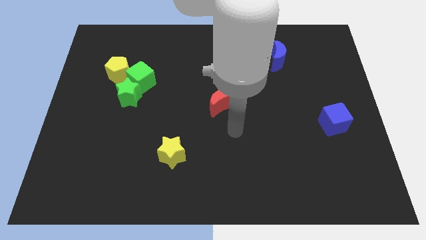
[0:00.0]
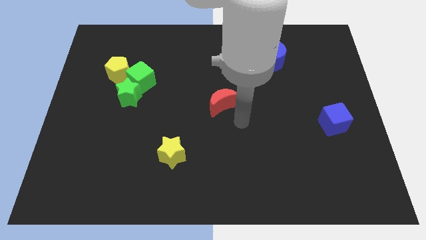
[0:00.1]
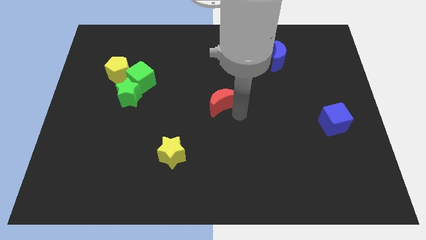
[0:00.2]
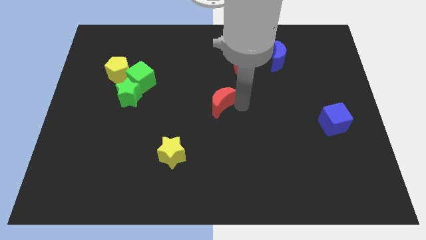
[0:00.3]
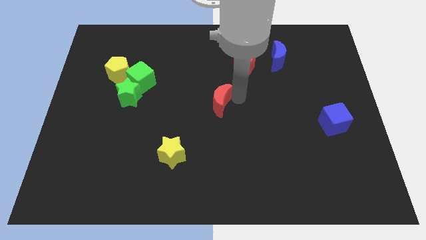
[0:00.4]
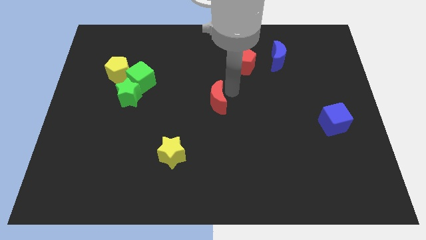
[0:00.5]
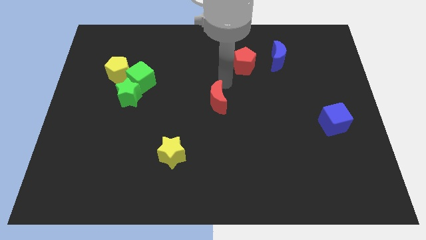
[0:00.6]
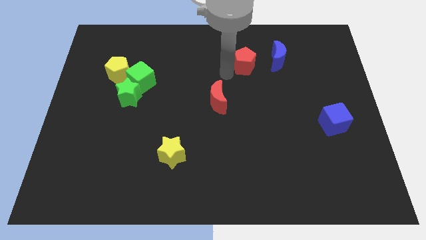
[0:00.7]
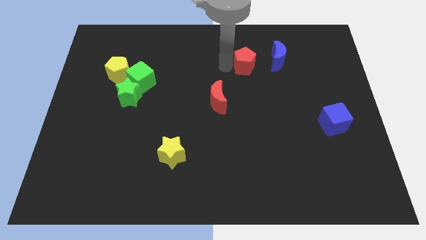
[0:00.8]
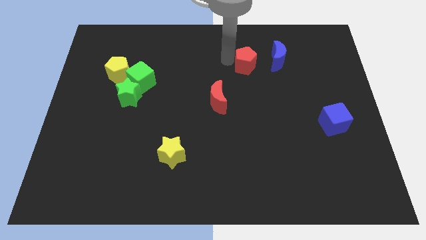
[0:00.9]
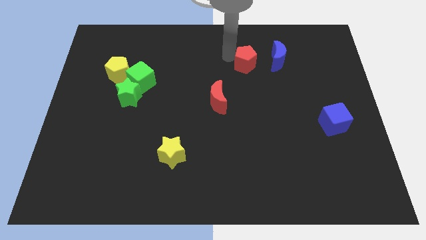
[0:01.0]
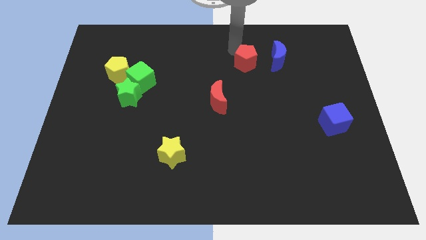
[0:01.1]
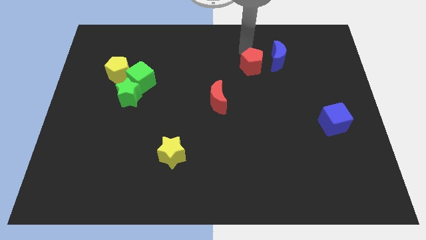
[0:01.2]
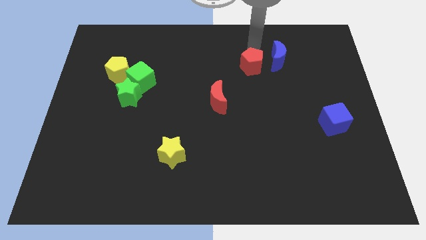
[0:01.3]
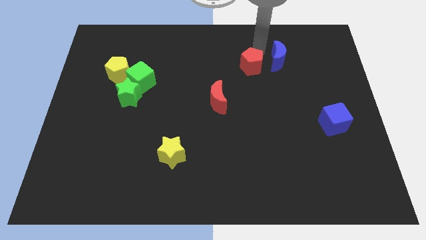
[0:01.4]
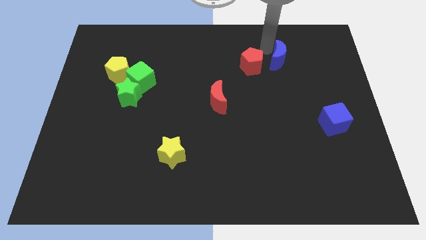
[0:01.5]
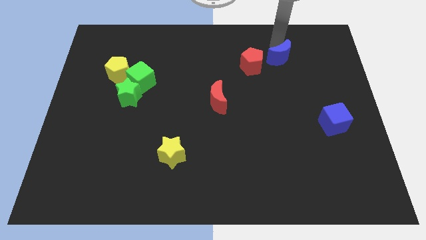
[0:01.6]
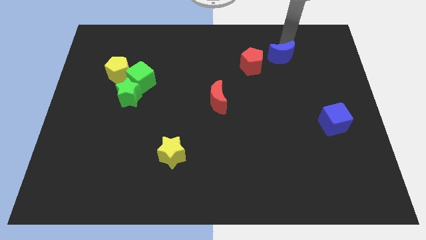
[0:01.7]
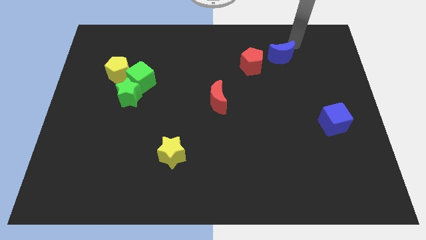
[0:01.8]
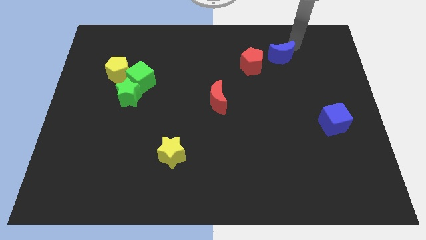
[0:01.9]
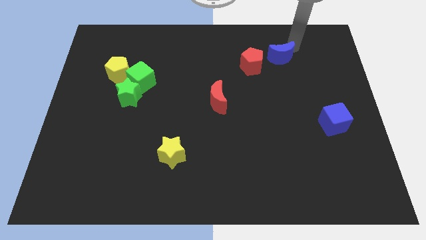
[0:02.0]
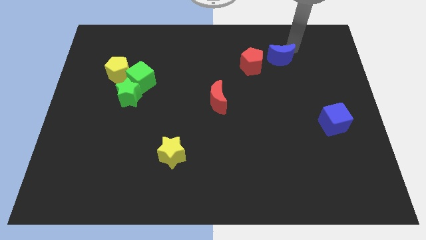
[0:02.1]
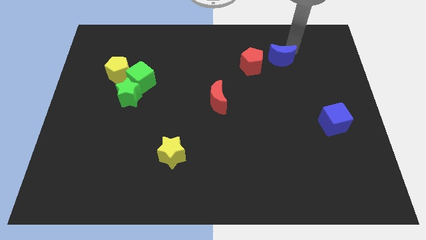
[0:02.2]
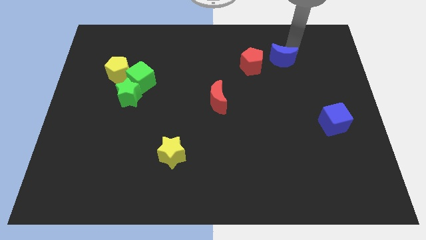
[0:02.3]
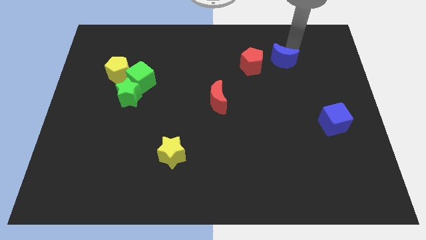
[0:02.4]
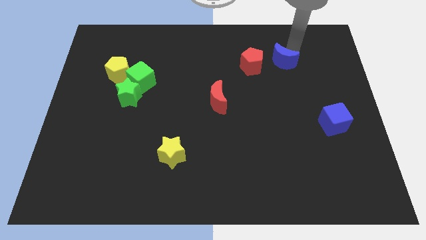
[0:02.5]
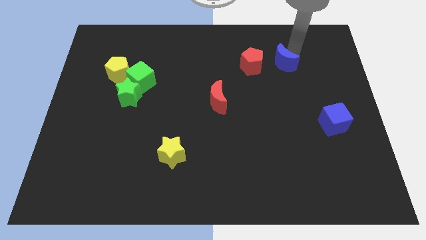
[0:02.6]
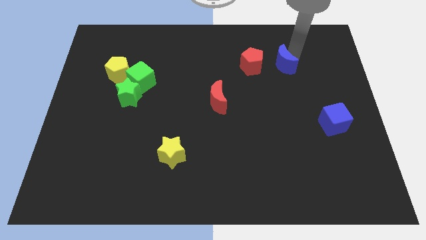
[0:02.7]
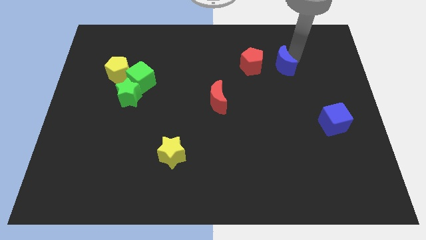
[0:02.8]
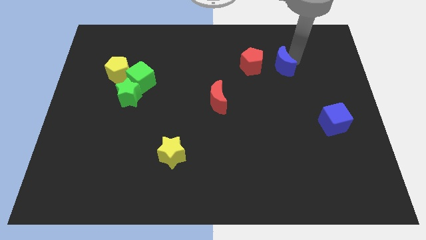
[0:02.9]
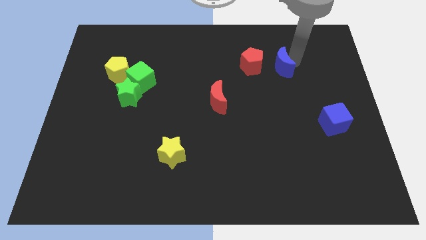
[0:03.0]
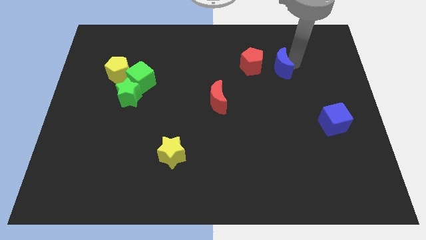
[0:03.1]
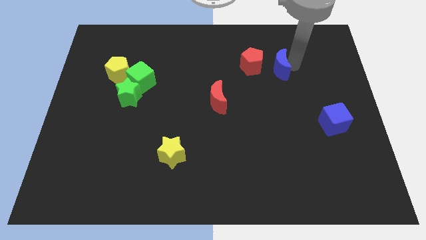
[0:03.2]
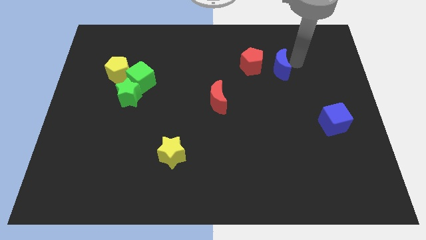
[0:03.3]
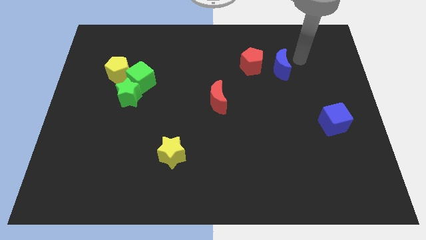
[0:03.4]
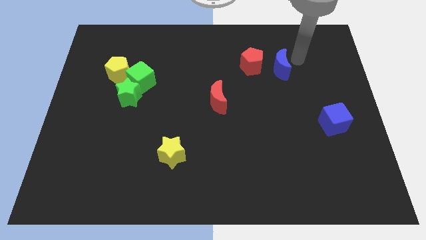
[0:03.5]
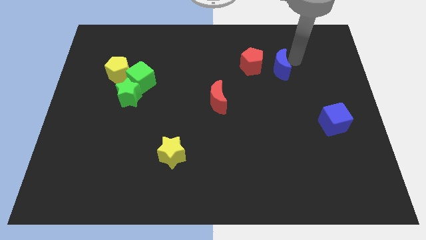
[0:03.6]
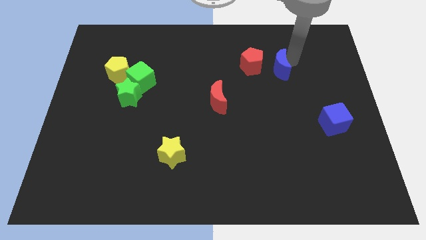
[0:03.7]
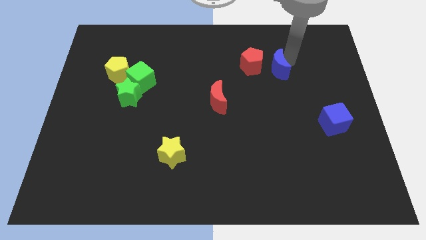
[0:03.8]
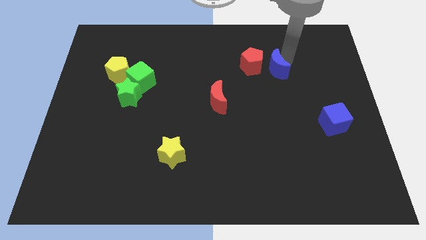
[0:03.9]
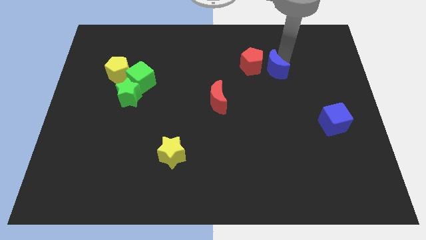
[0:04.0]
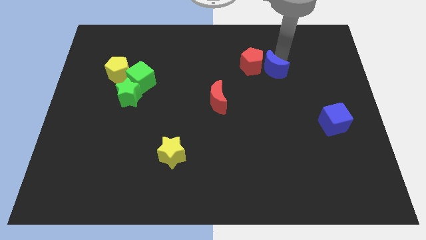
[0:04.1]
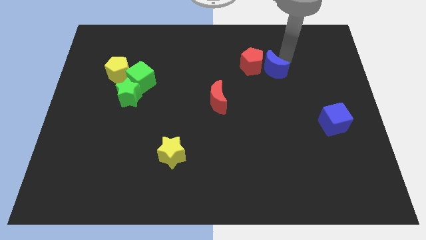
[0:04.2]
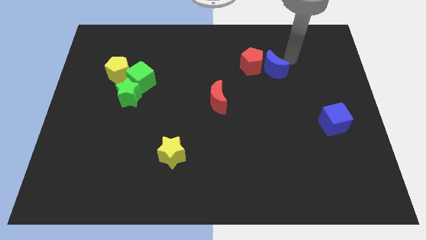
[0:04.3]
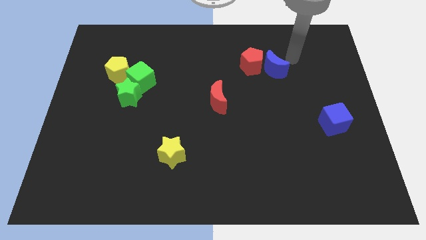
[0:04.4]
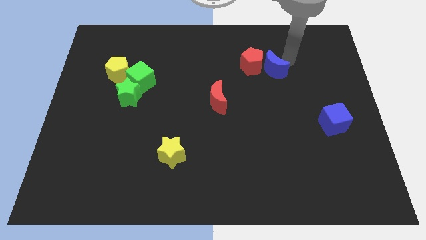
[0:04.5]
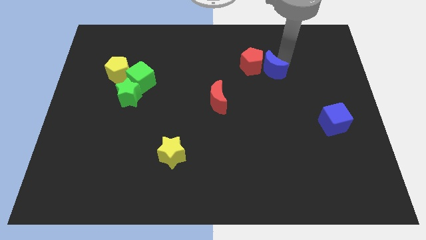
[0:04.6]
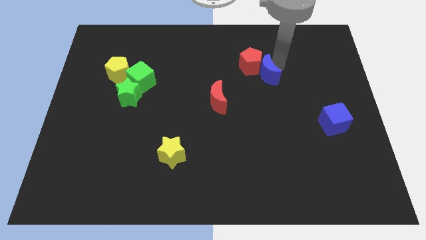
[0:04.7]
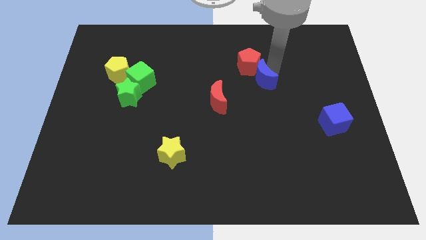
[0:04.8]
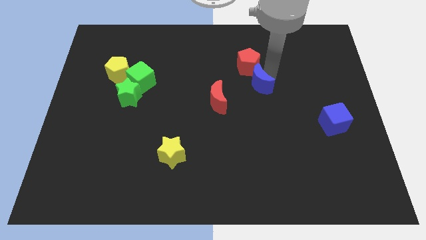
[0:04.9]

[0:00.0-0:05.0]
put the blue moon to the top right of the red moon

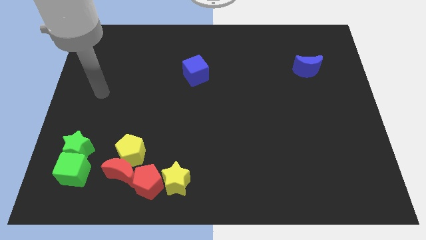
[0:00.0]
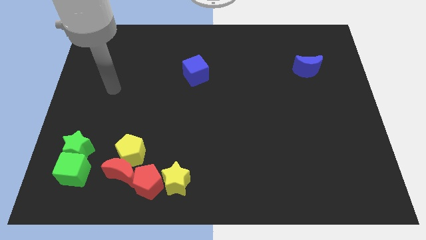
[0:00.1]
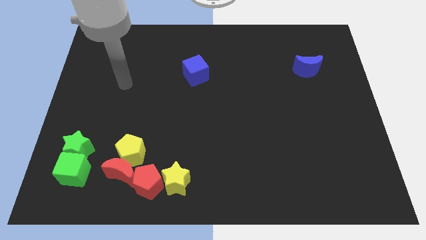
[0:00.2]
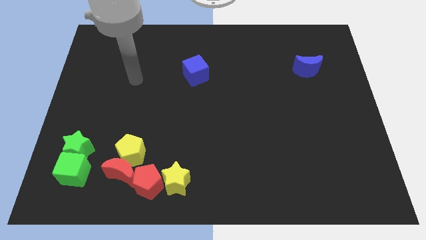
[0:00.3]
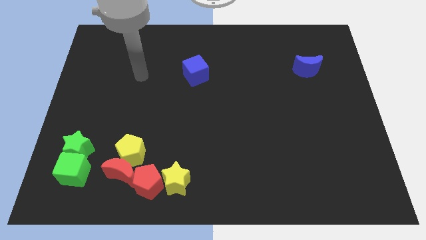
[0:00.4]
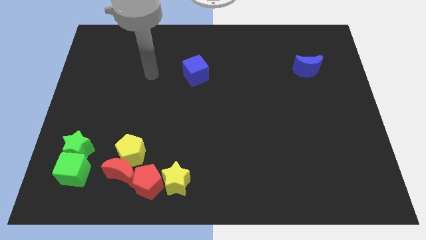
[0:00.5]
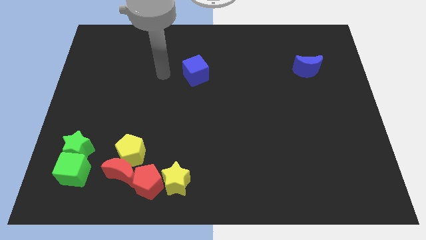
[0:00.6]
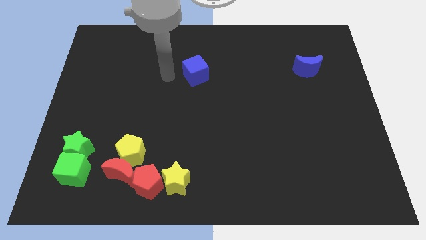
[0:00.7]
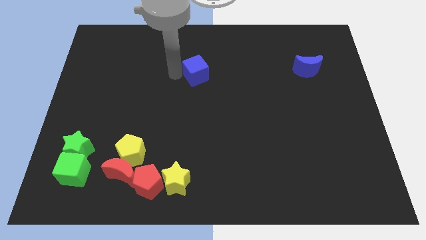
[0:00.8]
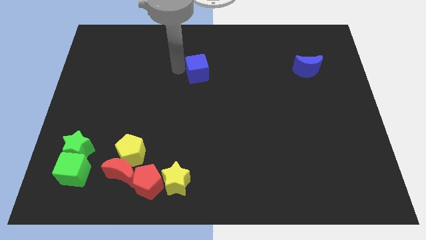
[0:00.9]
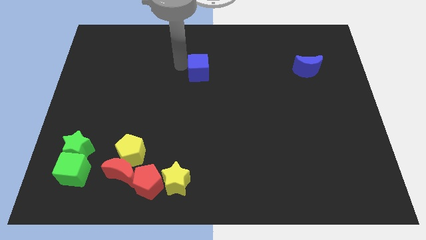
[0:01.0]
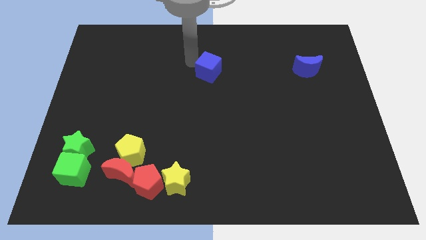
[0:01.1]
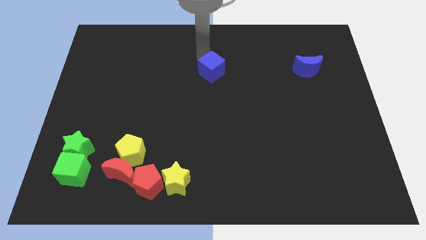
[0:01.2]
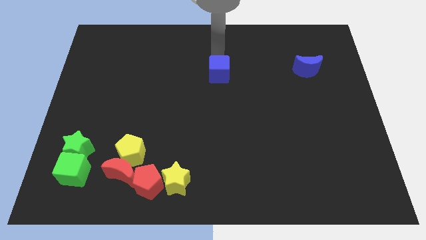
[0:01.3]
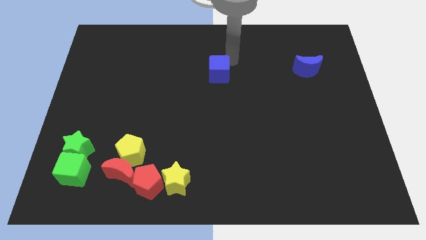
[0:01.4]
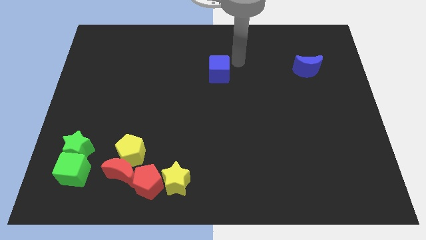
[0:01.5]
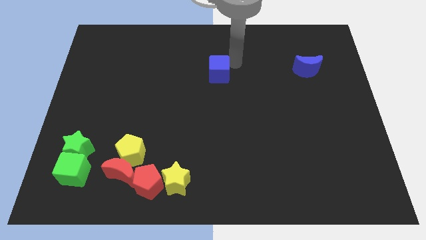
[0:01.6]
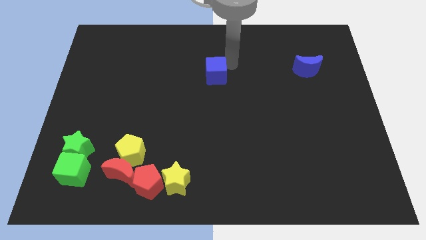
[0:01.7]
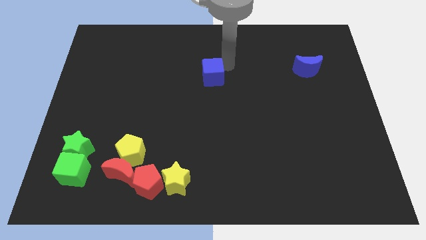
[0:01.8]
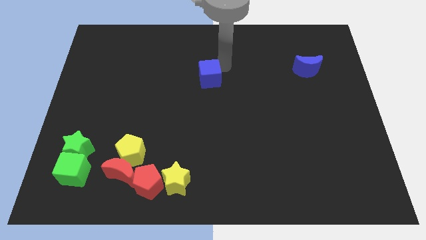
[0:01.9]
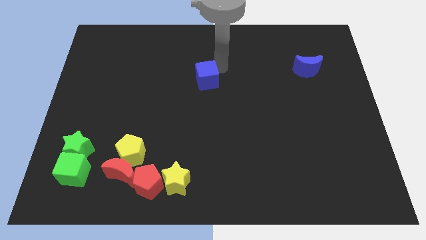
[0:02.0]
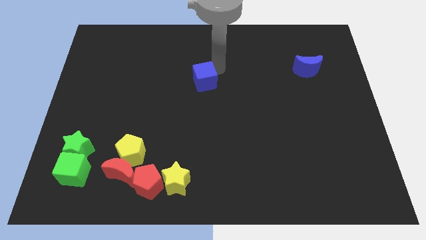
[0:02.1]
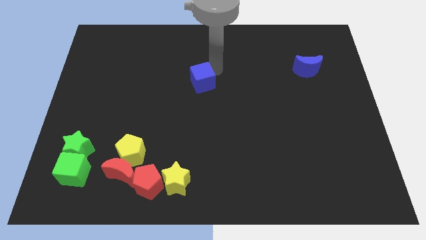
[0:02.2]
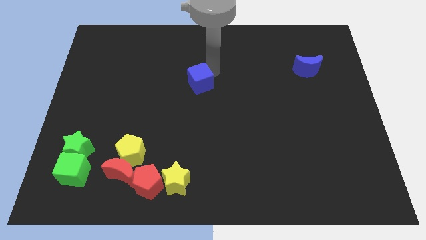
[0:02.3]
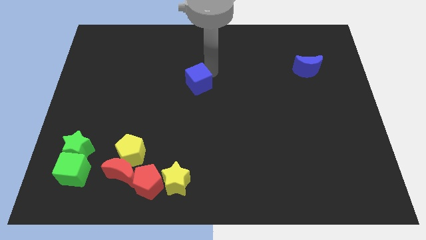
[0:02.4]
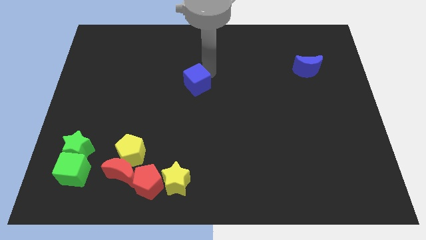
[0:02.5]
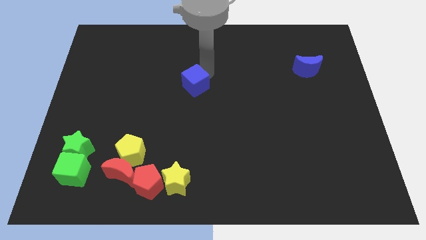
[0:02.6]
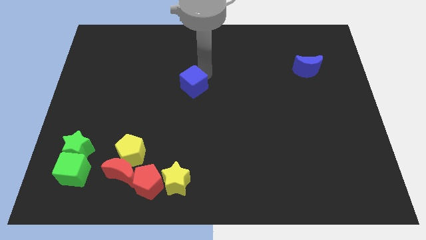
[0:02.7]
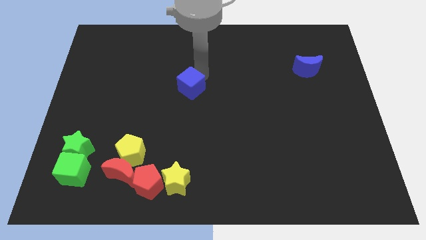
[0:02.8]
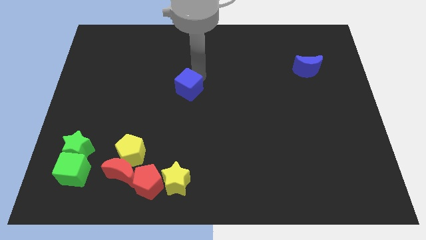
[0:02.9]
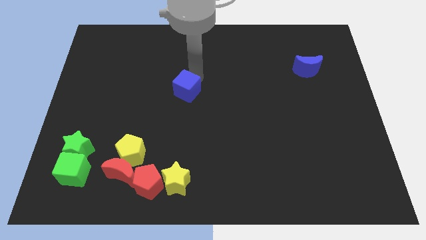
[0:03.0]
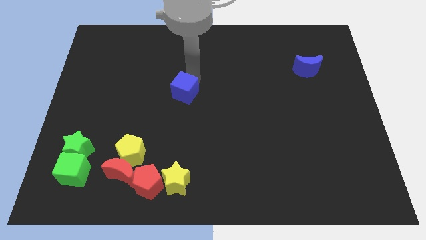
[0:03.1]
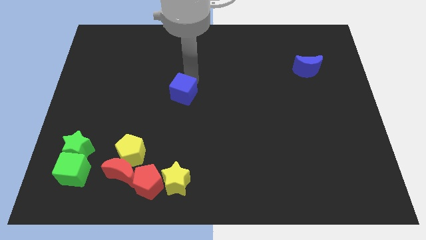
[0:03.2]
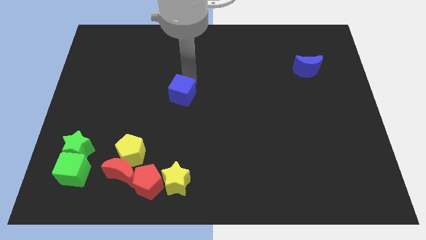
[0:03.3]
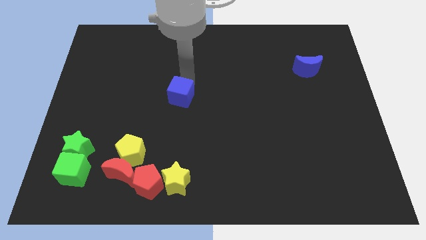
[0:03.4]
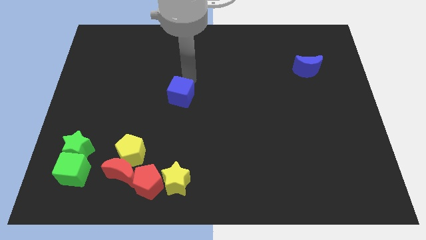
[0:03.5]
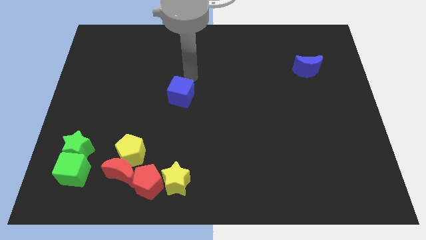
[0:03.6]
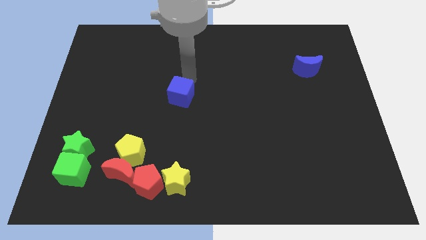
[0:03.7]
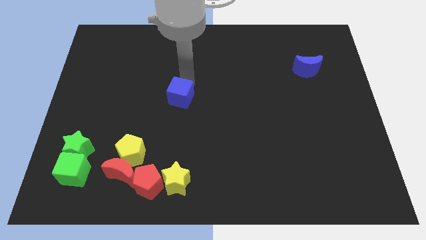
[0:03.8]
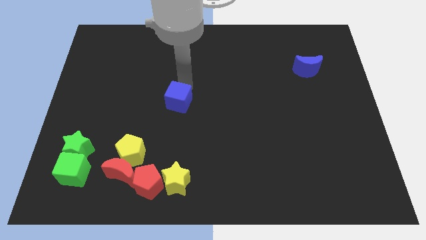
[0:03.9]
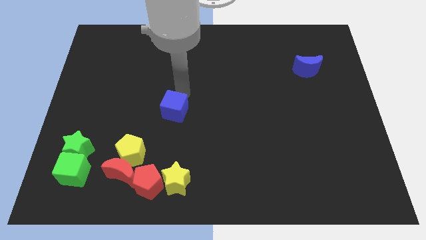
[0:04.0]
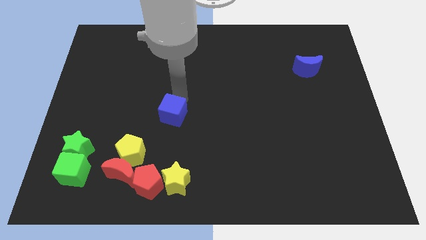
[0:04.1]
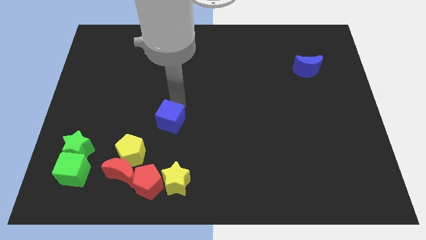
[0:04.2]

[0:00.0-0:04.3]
move the blue cube to the top right of the yellow pentagon
